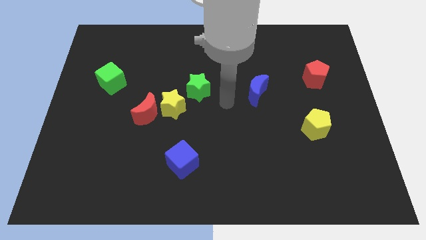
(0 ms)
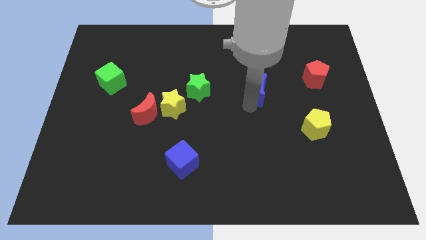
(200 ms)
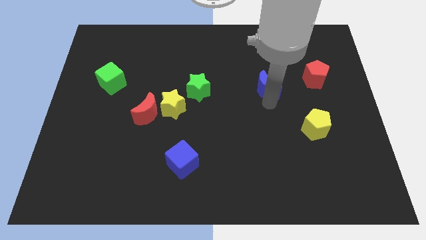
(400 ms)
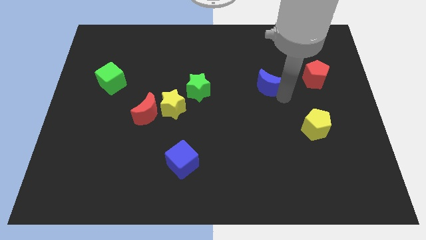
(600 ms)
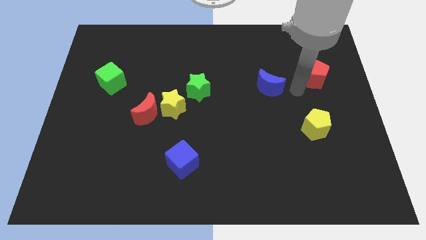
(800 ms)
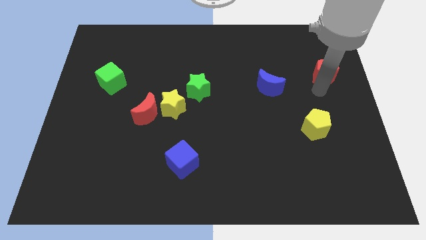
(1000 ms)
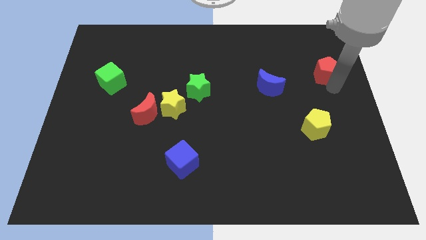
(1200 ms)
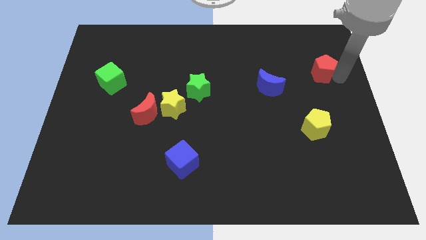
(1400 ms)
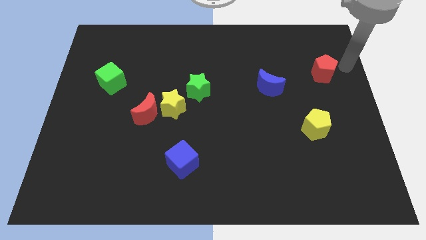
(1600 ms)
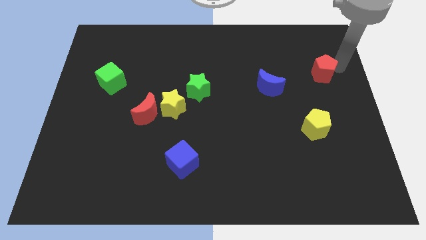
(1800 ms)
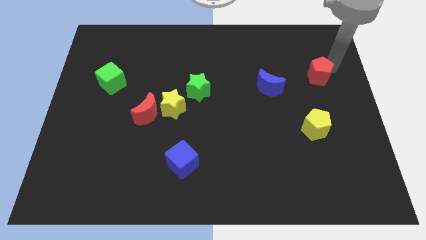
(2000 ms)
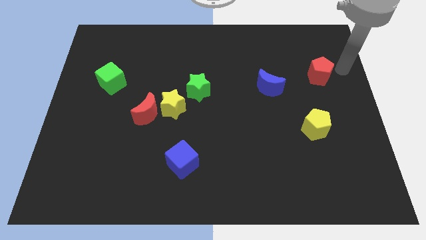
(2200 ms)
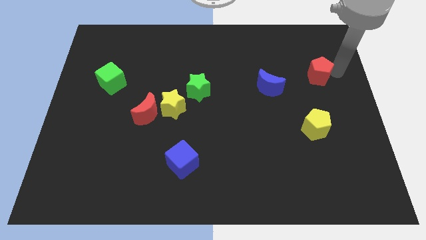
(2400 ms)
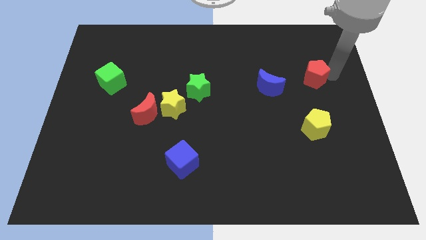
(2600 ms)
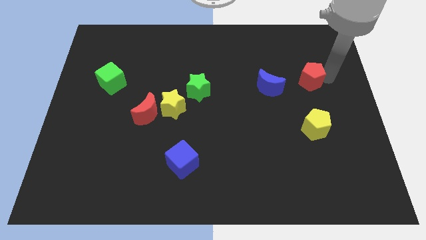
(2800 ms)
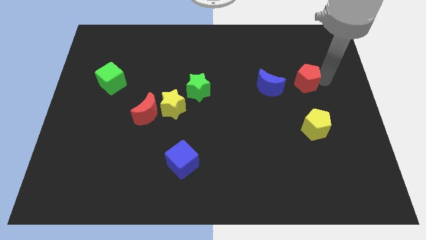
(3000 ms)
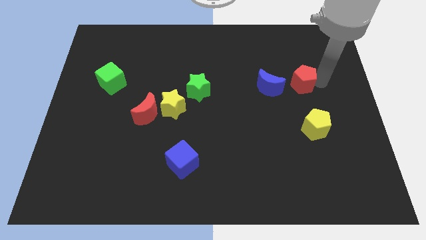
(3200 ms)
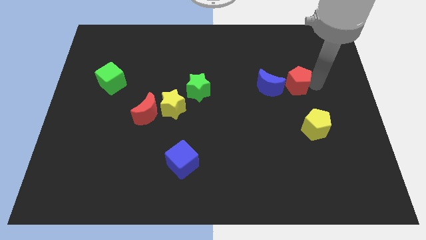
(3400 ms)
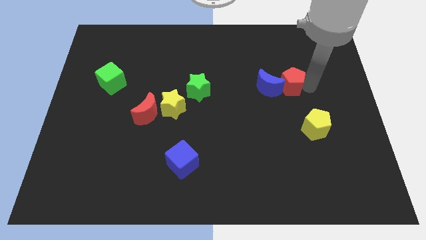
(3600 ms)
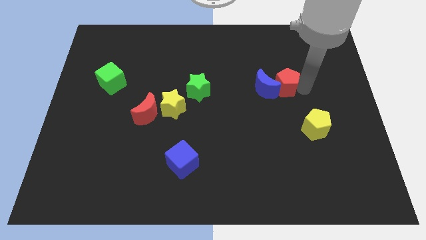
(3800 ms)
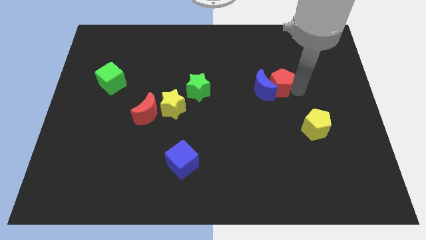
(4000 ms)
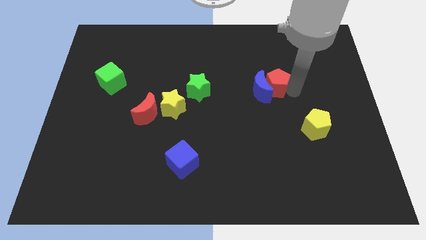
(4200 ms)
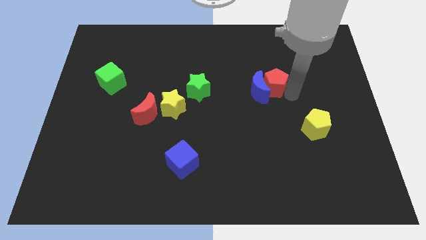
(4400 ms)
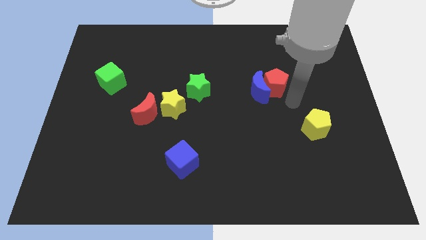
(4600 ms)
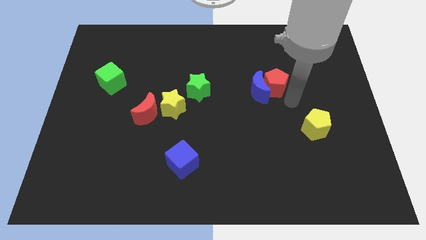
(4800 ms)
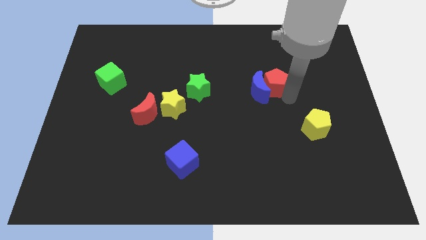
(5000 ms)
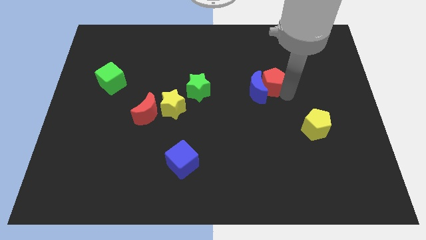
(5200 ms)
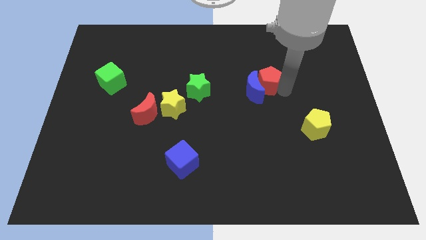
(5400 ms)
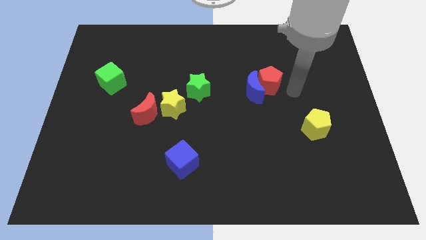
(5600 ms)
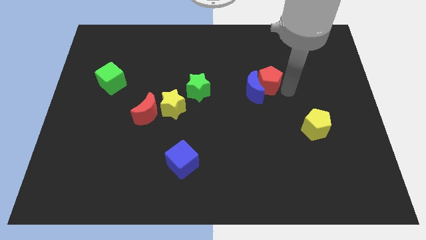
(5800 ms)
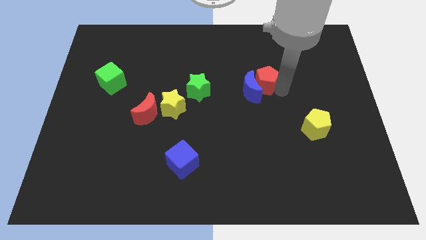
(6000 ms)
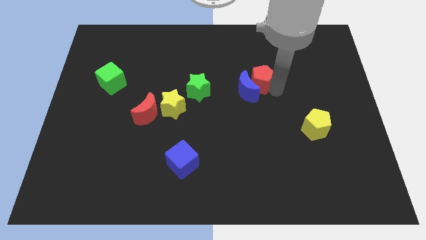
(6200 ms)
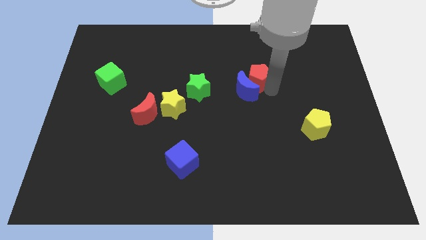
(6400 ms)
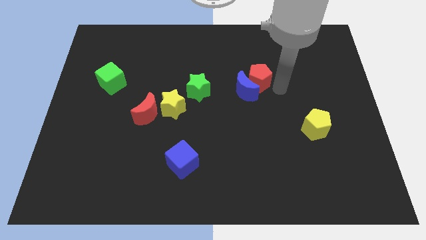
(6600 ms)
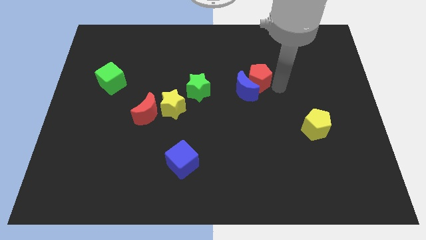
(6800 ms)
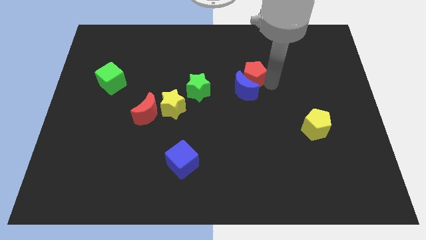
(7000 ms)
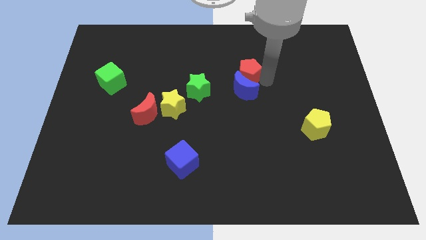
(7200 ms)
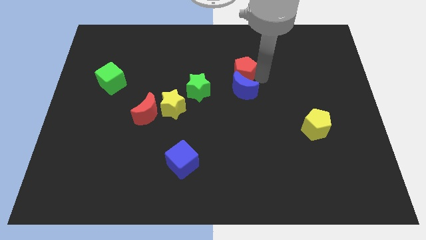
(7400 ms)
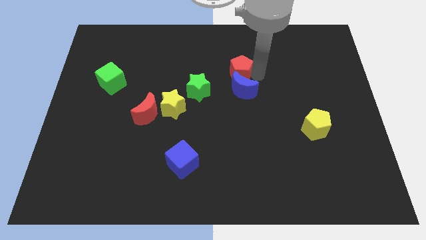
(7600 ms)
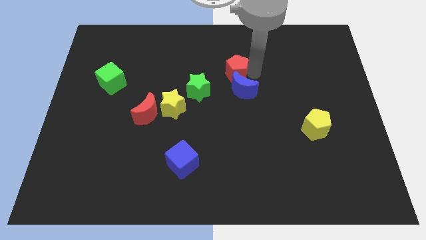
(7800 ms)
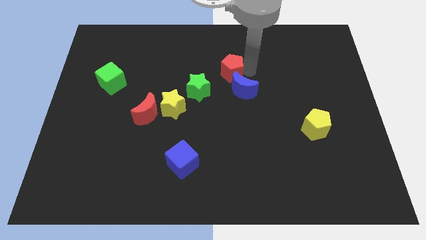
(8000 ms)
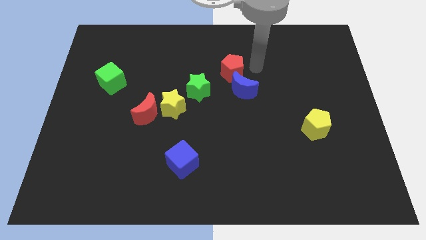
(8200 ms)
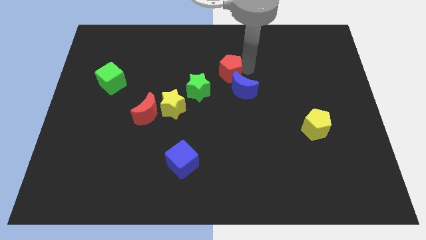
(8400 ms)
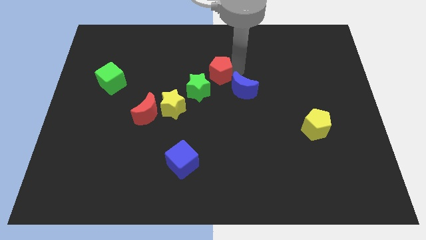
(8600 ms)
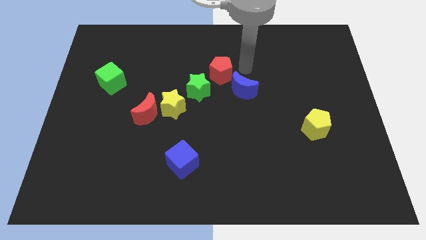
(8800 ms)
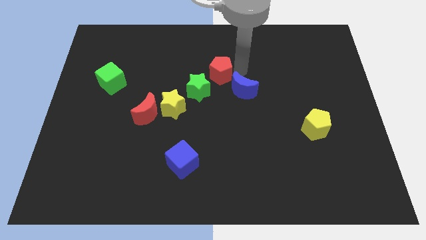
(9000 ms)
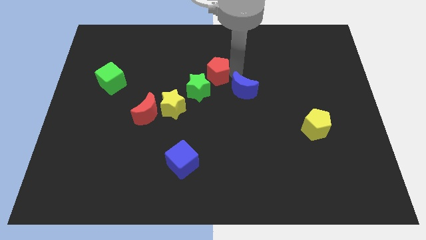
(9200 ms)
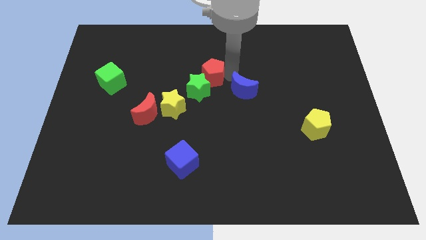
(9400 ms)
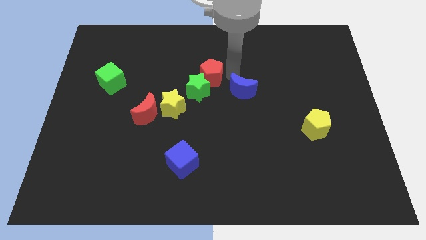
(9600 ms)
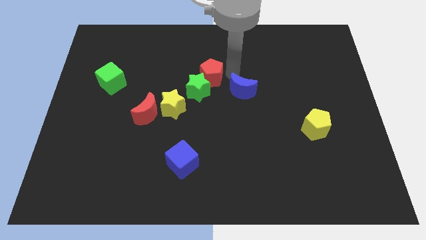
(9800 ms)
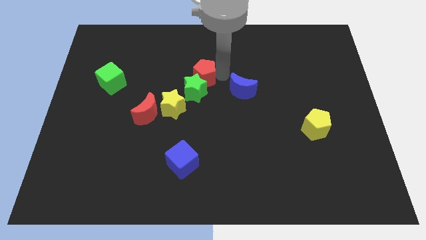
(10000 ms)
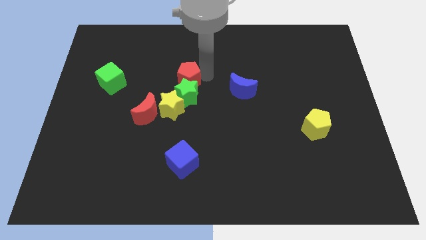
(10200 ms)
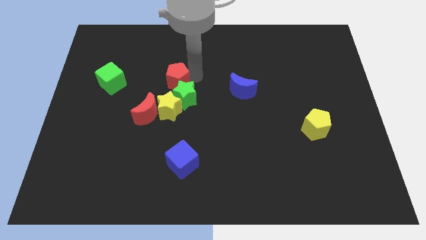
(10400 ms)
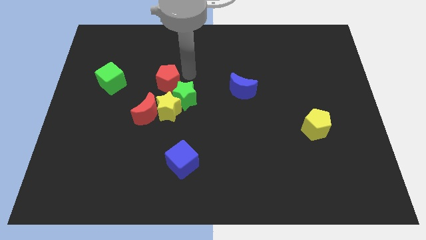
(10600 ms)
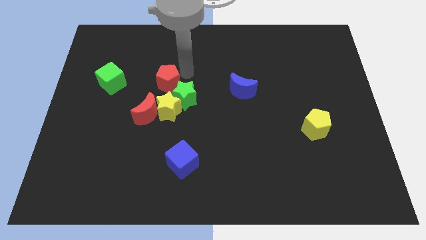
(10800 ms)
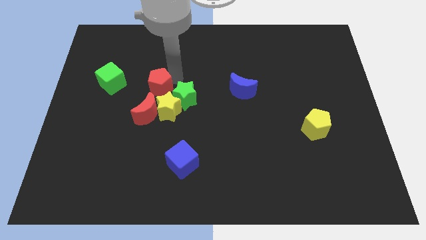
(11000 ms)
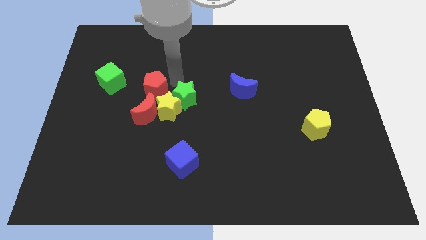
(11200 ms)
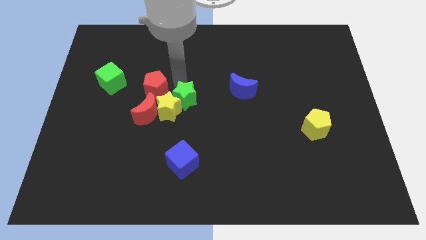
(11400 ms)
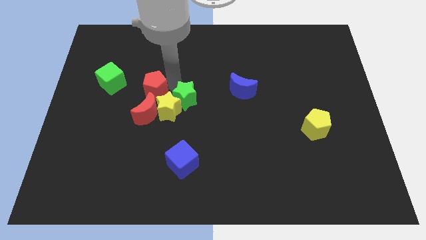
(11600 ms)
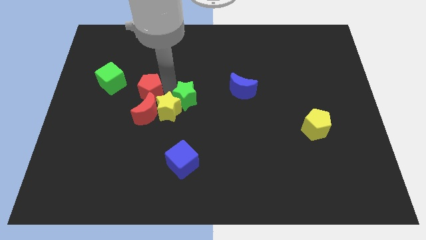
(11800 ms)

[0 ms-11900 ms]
push the red pentagon to the top left of the red moon
